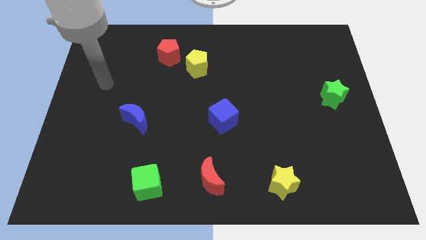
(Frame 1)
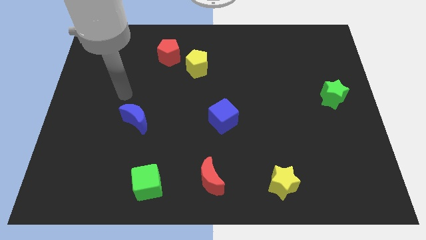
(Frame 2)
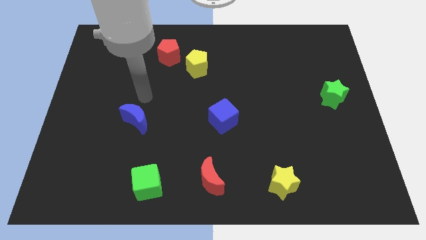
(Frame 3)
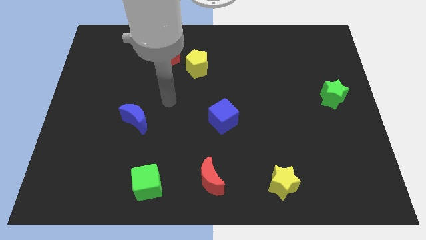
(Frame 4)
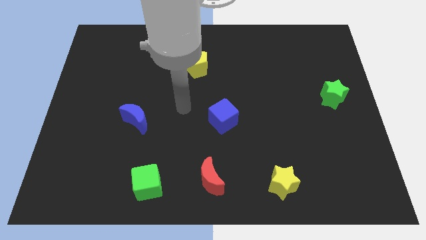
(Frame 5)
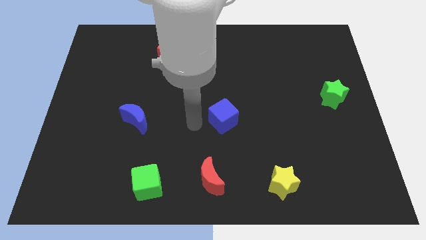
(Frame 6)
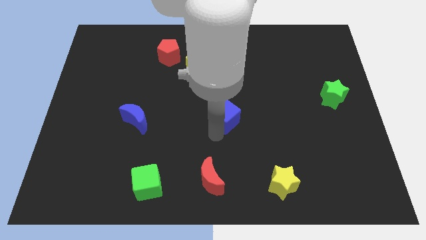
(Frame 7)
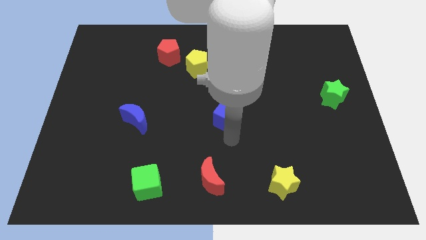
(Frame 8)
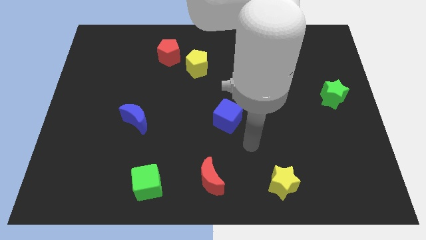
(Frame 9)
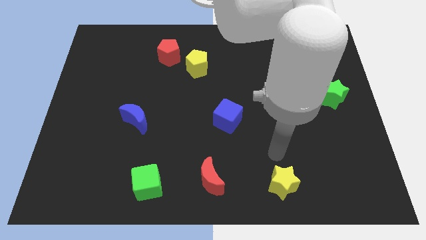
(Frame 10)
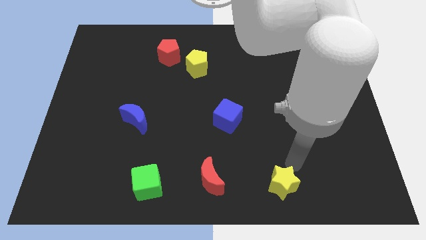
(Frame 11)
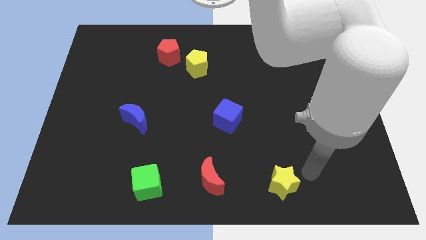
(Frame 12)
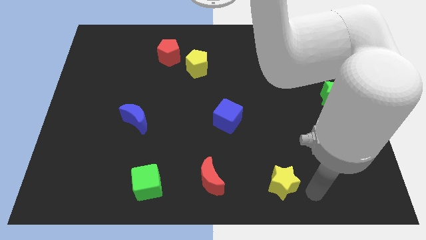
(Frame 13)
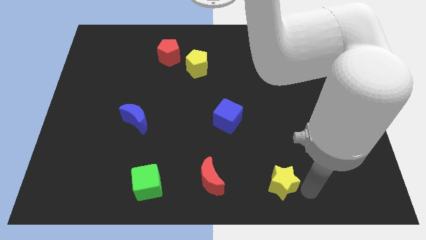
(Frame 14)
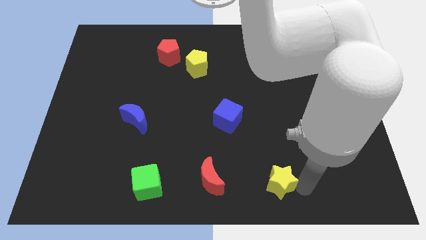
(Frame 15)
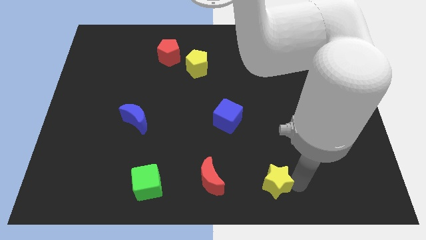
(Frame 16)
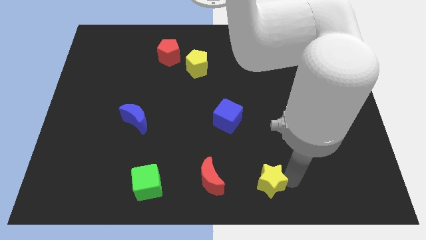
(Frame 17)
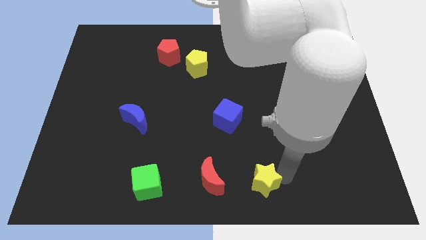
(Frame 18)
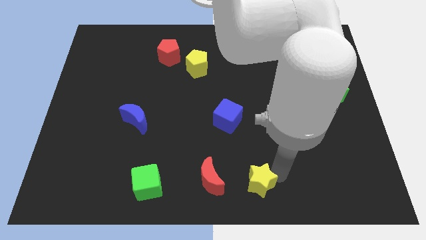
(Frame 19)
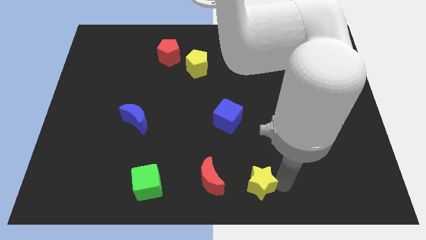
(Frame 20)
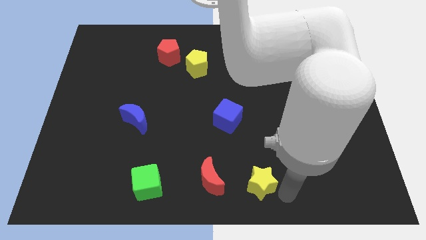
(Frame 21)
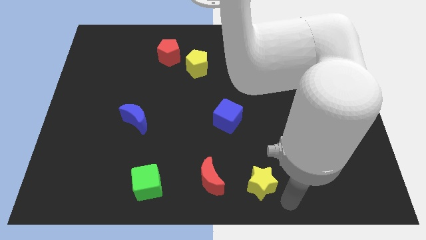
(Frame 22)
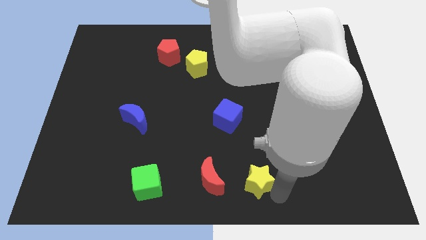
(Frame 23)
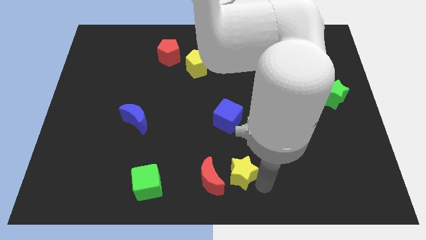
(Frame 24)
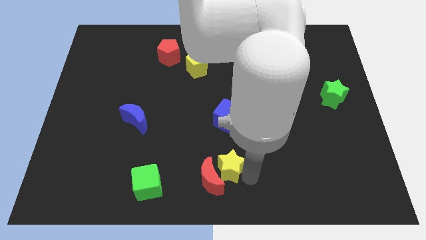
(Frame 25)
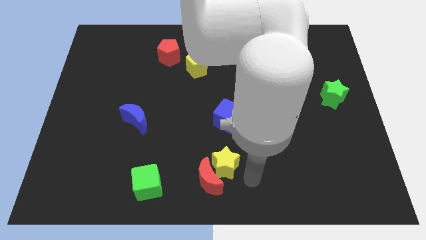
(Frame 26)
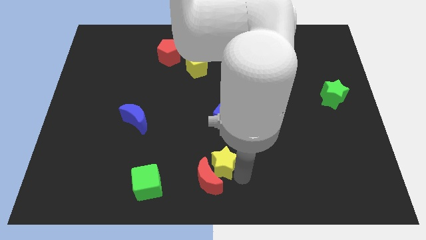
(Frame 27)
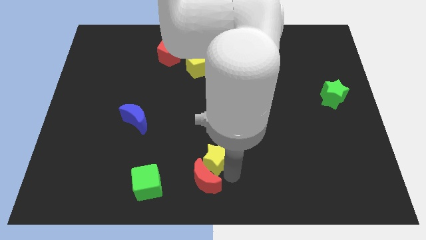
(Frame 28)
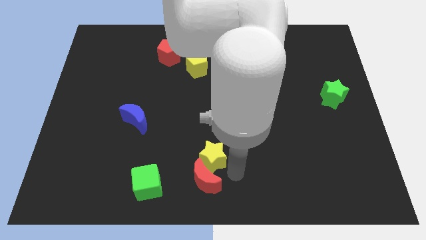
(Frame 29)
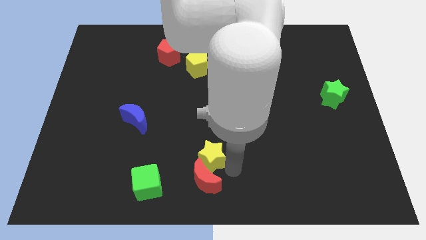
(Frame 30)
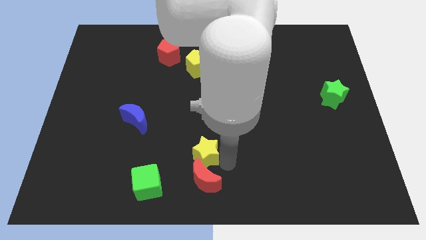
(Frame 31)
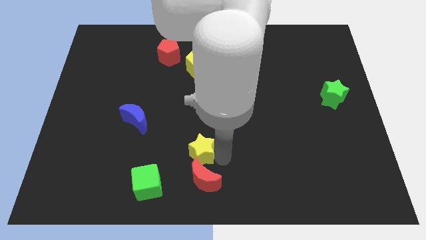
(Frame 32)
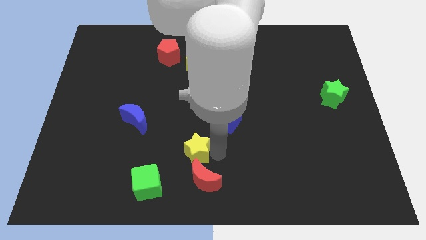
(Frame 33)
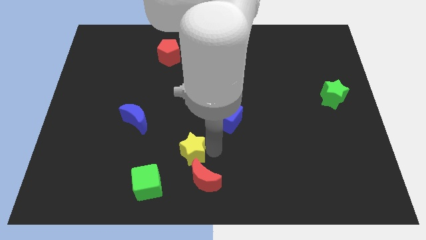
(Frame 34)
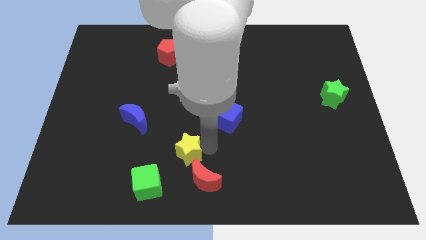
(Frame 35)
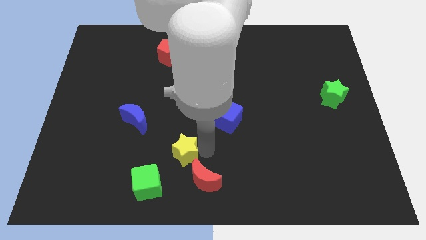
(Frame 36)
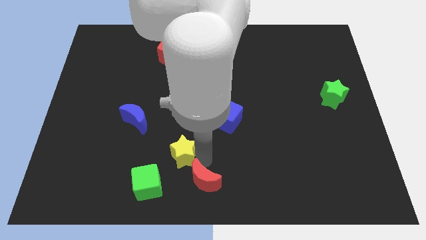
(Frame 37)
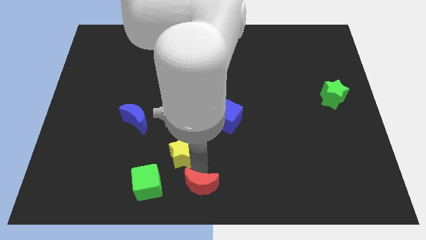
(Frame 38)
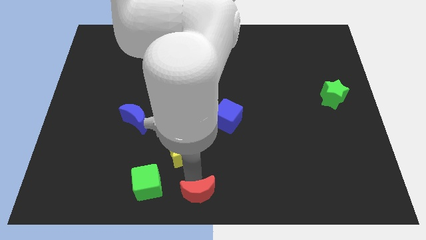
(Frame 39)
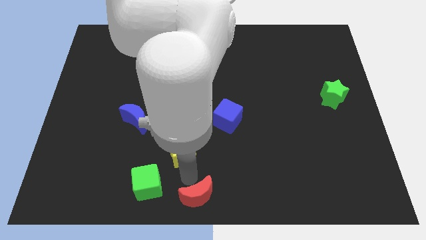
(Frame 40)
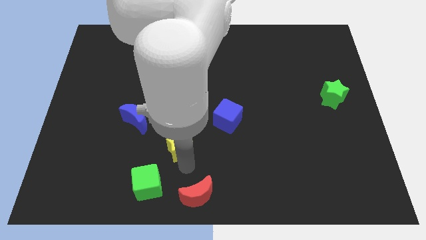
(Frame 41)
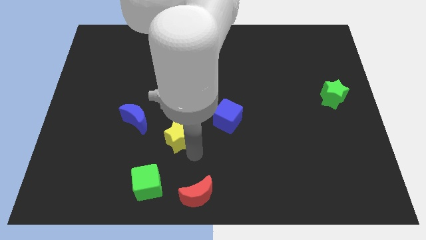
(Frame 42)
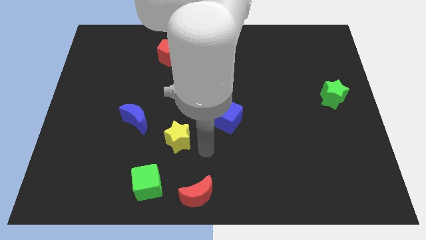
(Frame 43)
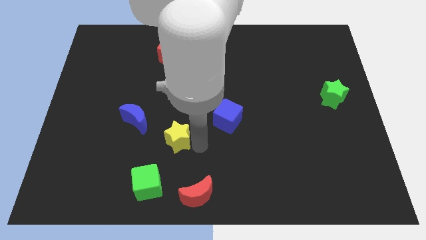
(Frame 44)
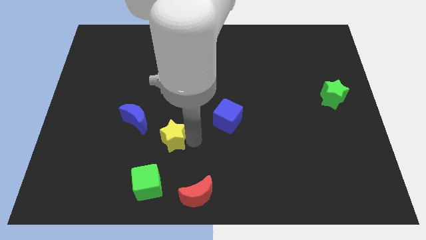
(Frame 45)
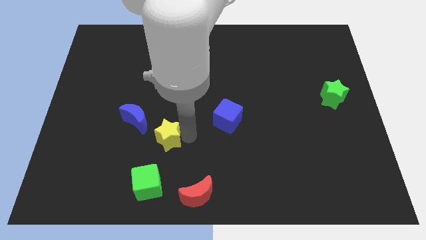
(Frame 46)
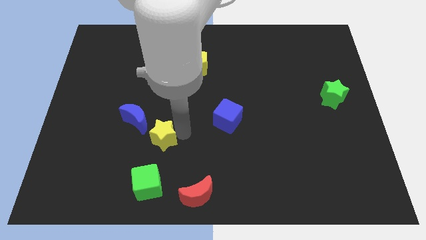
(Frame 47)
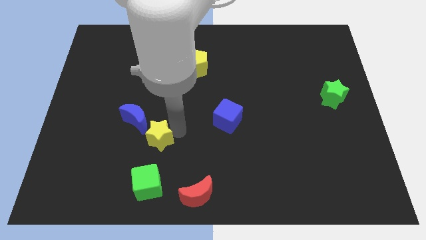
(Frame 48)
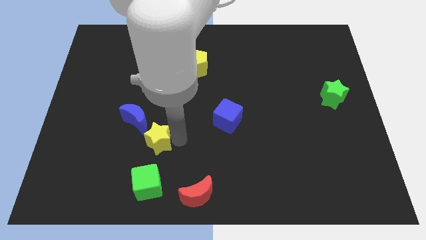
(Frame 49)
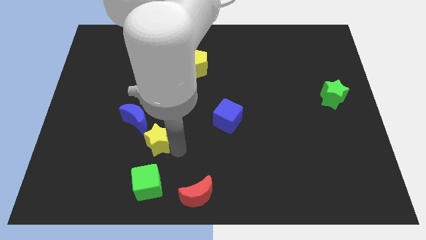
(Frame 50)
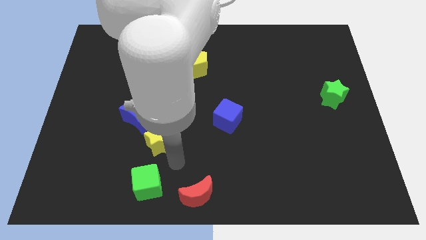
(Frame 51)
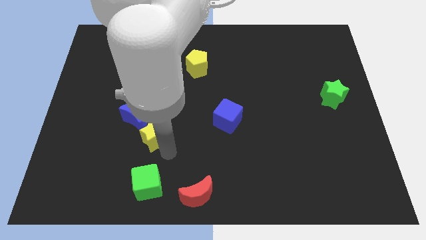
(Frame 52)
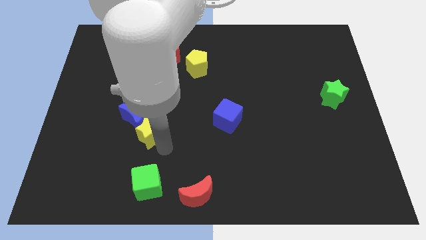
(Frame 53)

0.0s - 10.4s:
slide the yellow star towards the blue moon

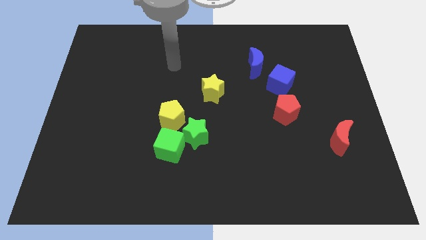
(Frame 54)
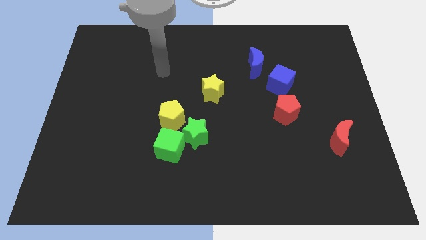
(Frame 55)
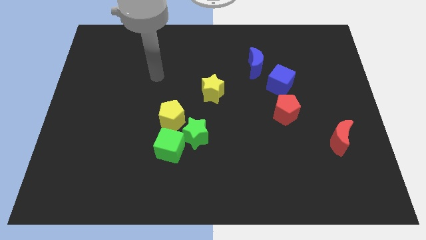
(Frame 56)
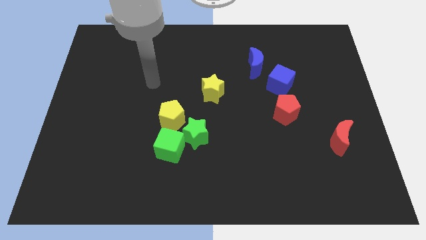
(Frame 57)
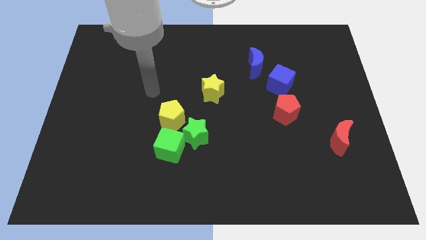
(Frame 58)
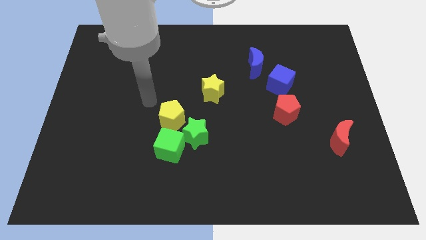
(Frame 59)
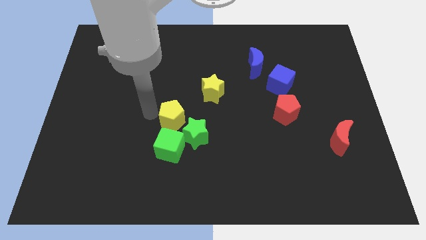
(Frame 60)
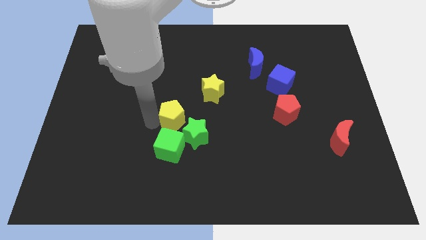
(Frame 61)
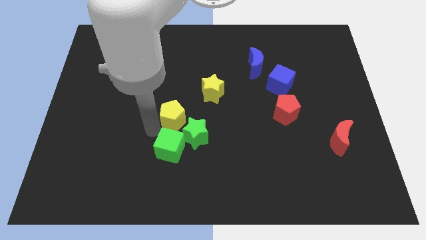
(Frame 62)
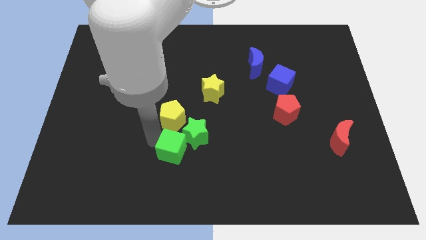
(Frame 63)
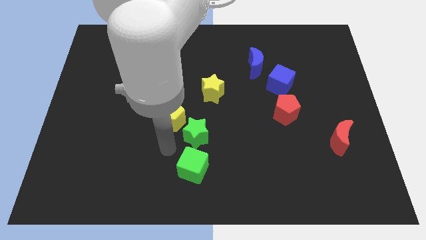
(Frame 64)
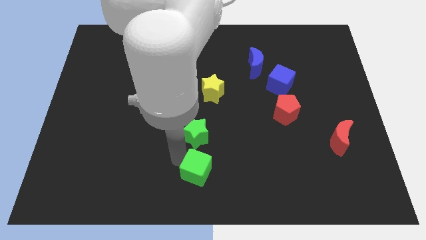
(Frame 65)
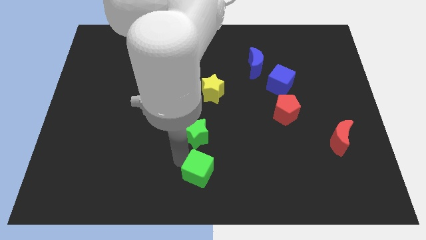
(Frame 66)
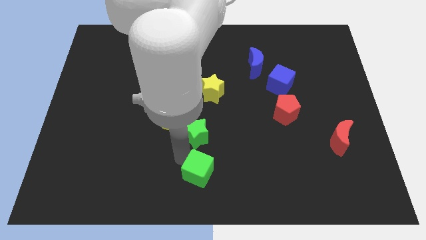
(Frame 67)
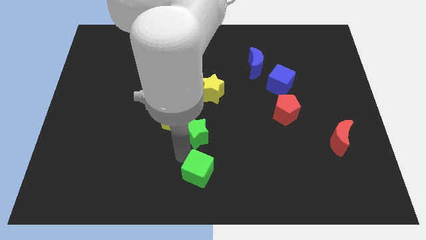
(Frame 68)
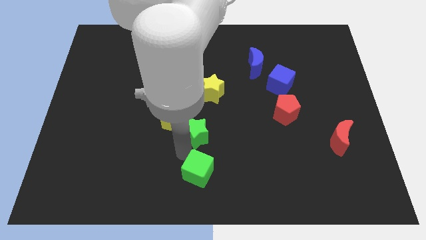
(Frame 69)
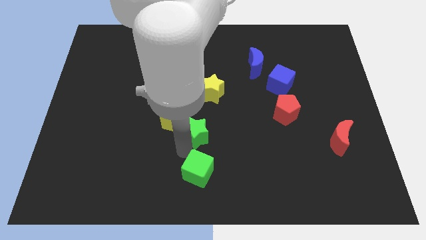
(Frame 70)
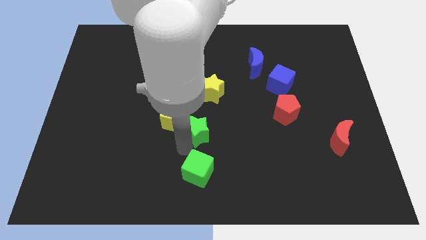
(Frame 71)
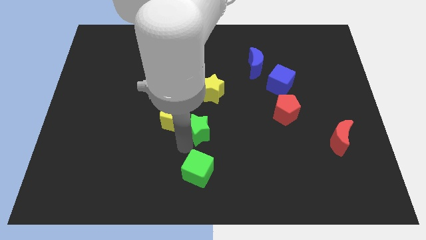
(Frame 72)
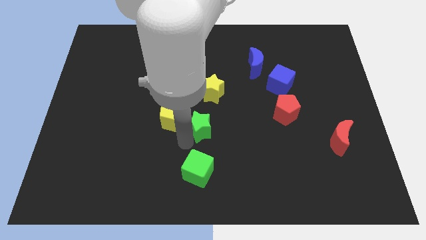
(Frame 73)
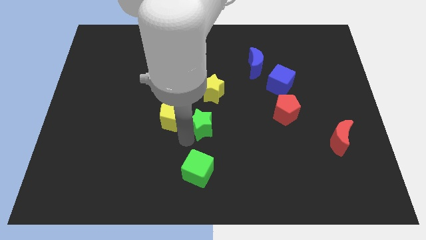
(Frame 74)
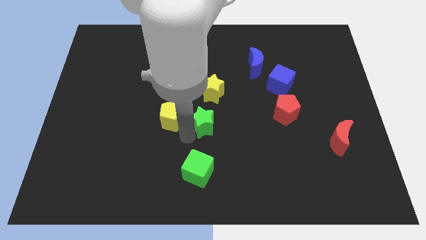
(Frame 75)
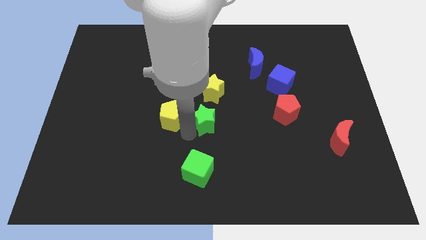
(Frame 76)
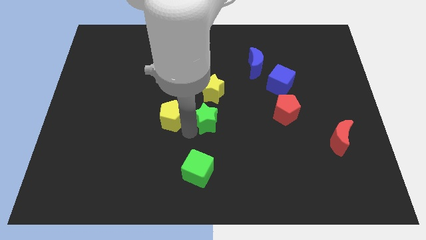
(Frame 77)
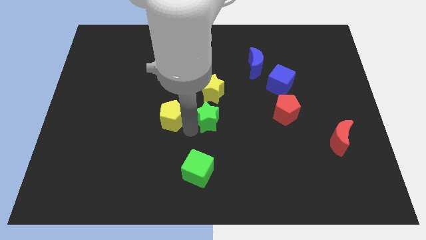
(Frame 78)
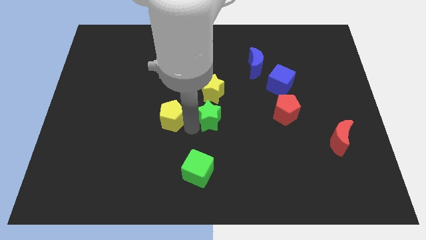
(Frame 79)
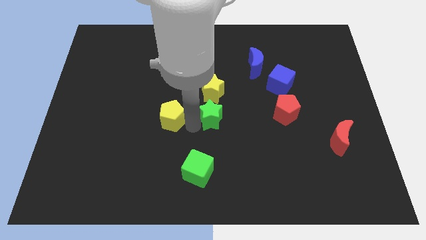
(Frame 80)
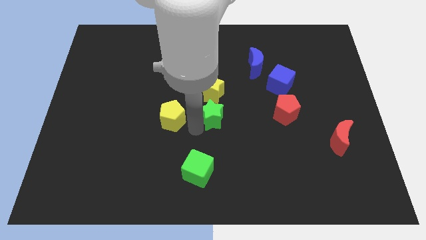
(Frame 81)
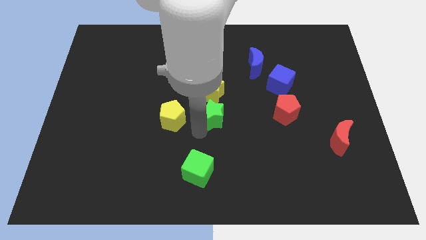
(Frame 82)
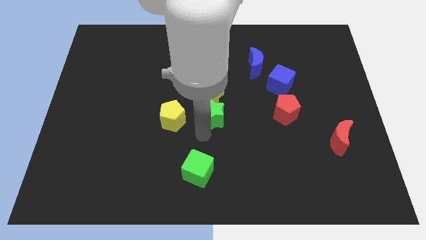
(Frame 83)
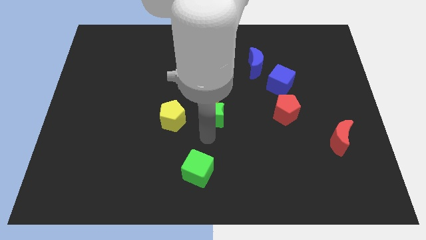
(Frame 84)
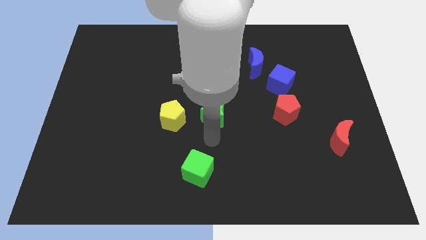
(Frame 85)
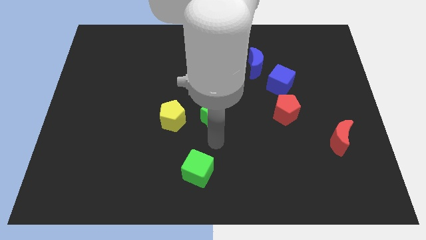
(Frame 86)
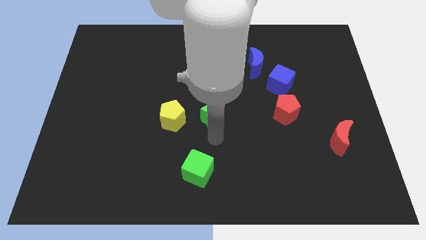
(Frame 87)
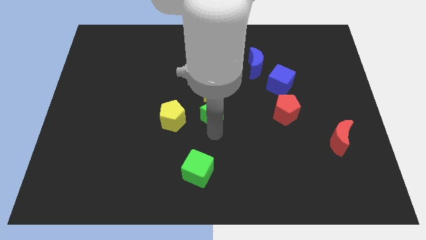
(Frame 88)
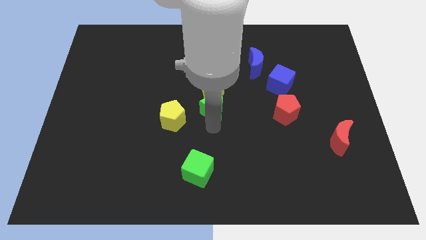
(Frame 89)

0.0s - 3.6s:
put the green star towards the yellow star
